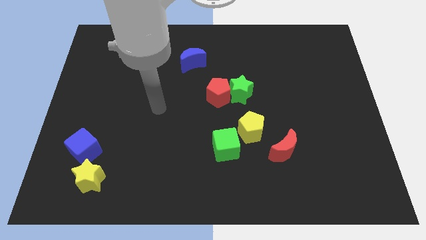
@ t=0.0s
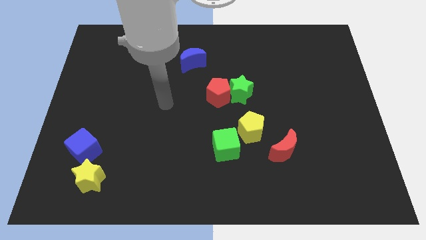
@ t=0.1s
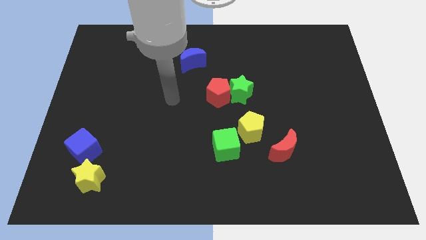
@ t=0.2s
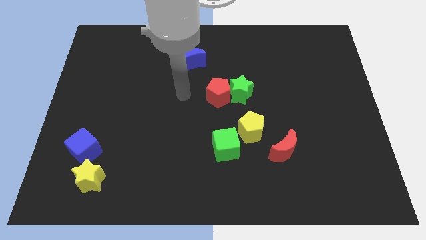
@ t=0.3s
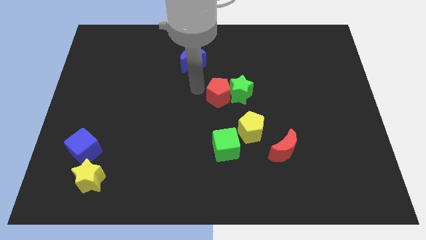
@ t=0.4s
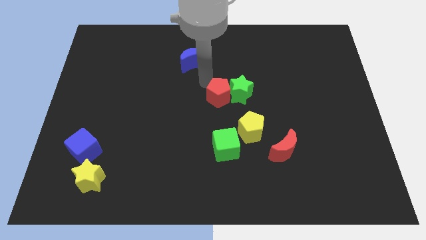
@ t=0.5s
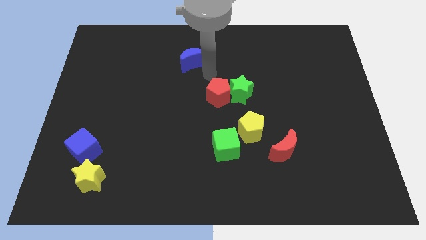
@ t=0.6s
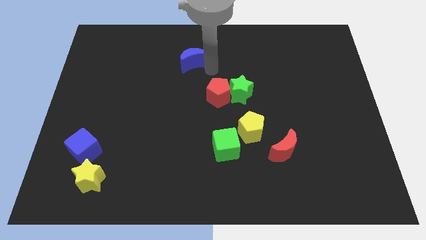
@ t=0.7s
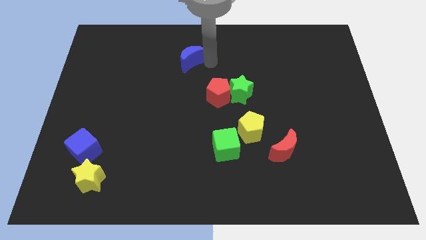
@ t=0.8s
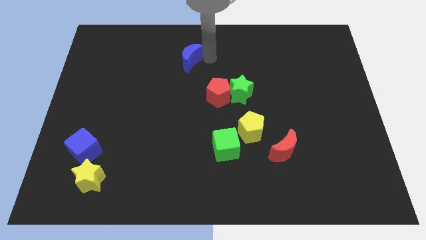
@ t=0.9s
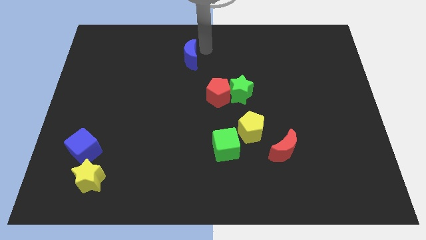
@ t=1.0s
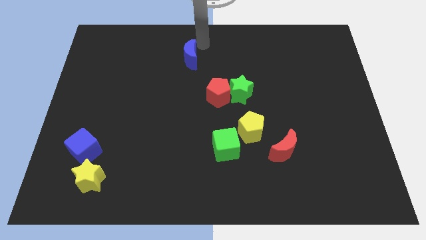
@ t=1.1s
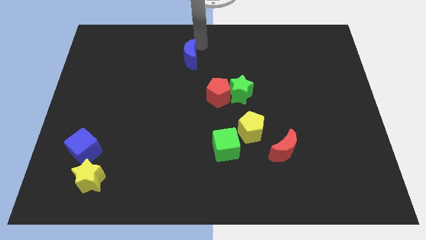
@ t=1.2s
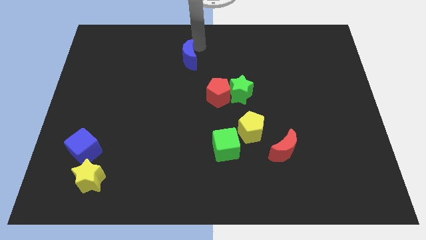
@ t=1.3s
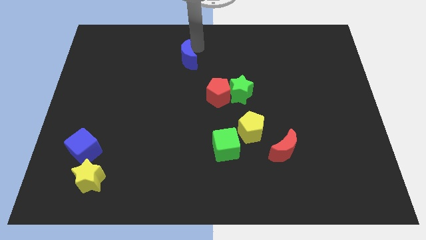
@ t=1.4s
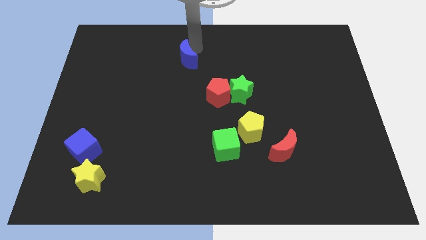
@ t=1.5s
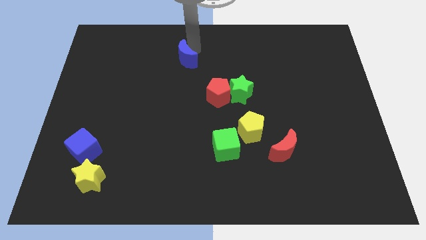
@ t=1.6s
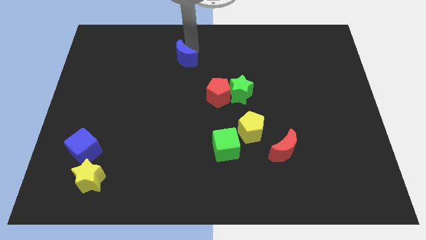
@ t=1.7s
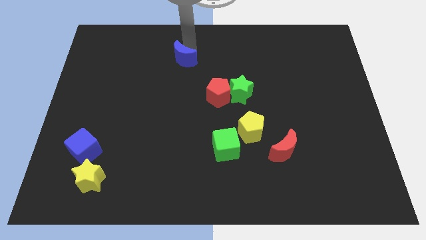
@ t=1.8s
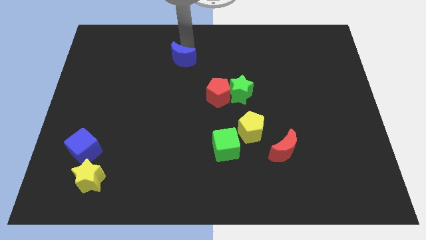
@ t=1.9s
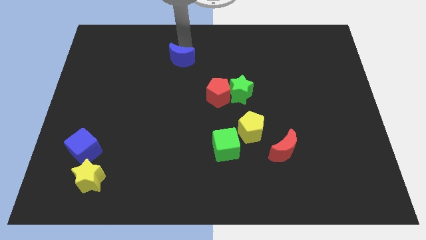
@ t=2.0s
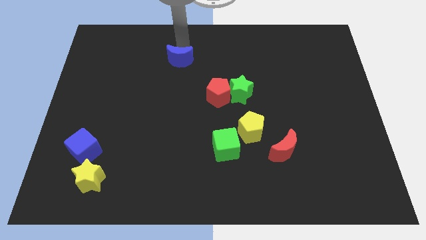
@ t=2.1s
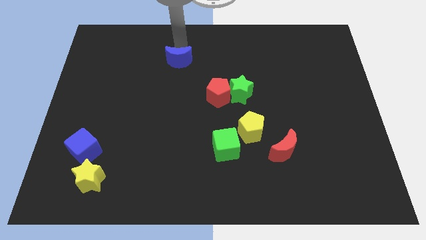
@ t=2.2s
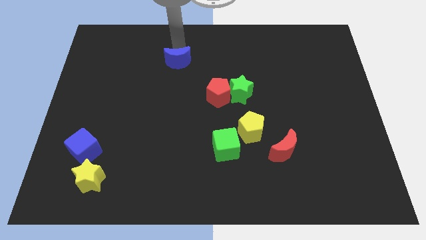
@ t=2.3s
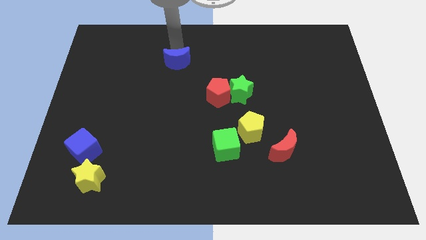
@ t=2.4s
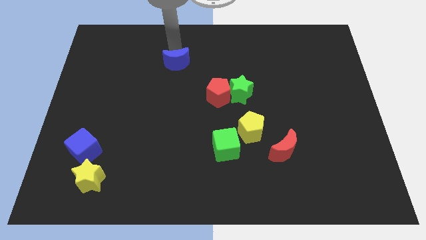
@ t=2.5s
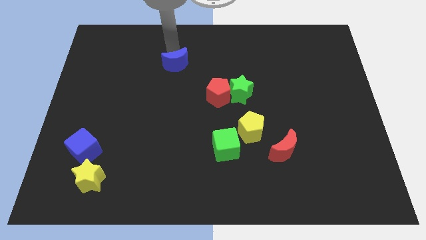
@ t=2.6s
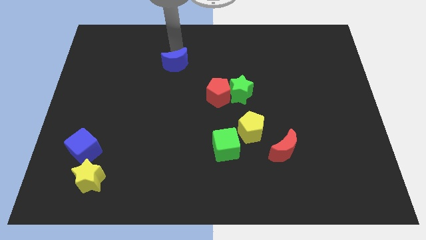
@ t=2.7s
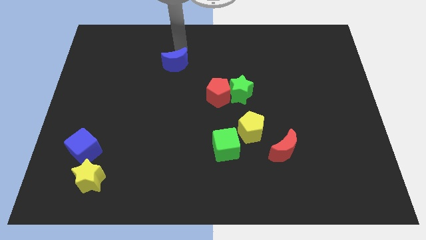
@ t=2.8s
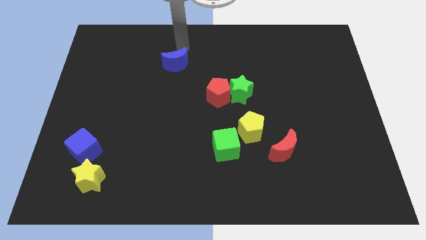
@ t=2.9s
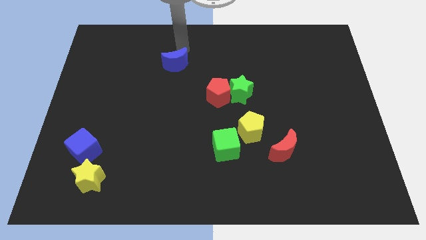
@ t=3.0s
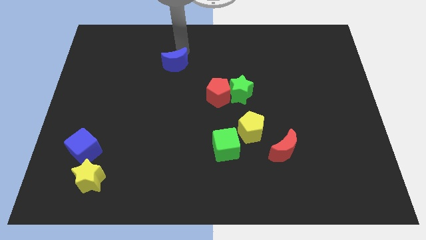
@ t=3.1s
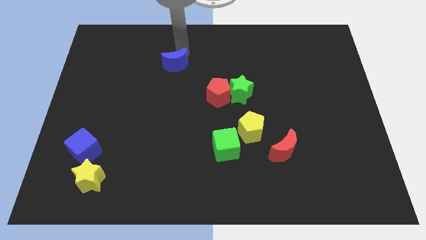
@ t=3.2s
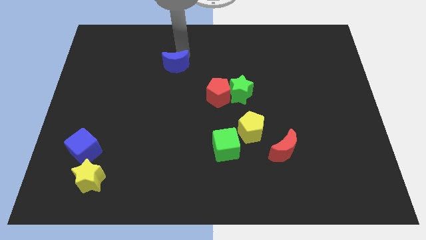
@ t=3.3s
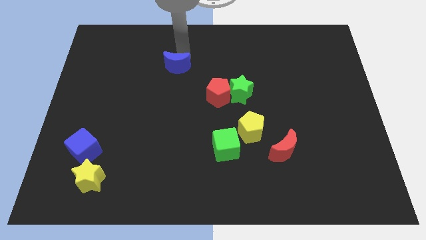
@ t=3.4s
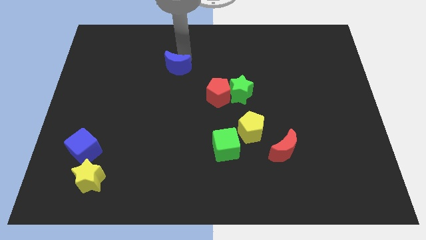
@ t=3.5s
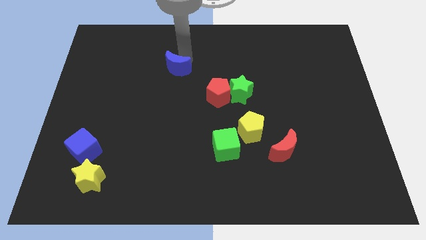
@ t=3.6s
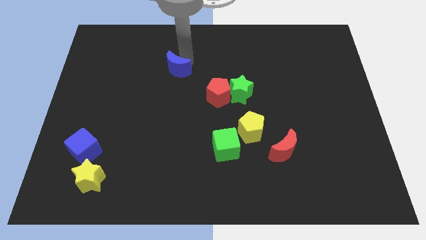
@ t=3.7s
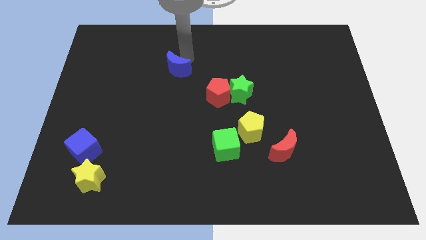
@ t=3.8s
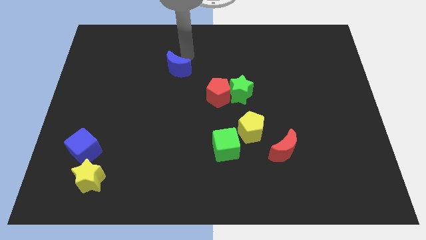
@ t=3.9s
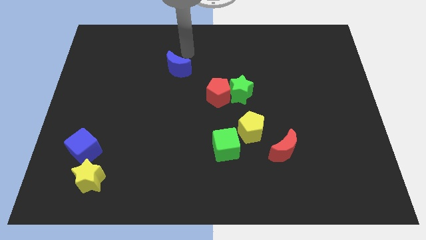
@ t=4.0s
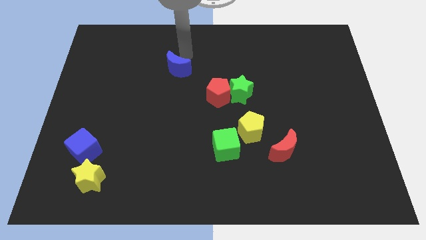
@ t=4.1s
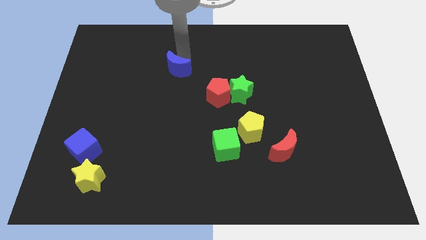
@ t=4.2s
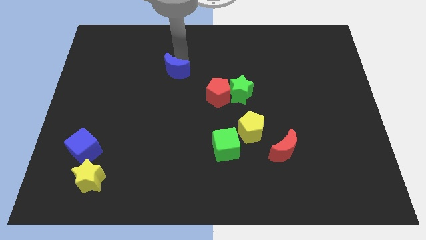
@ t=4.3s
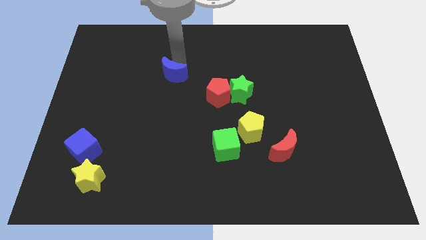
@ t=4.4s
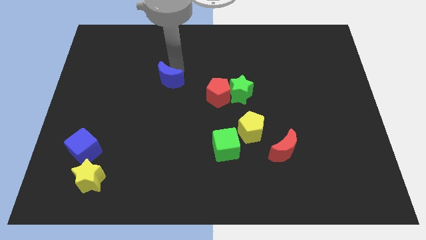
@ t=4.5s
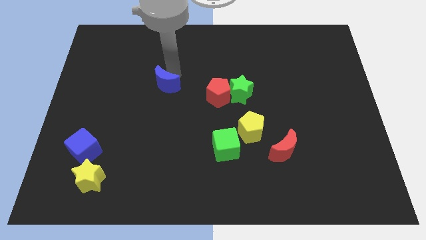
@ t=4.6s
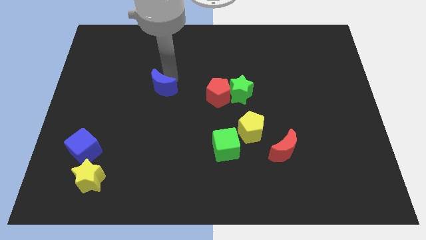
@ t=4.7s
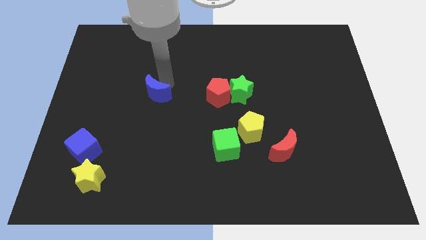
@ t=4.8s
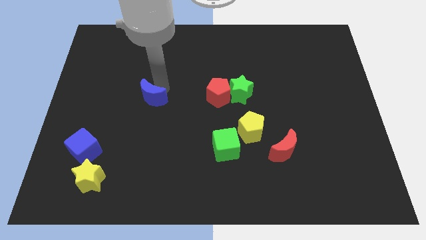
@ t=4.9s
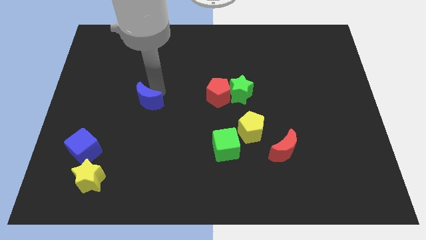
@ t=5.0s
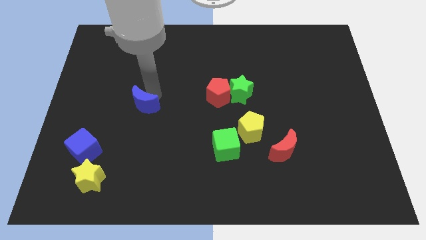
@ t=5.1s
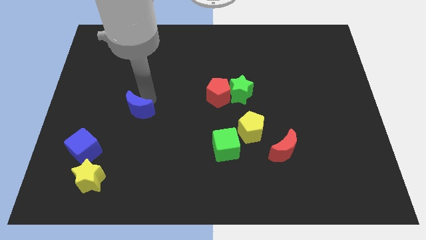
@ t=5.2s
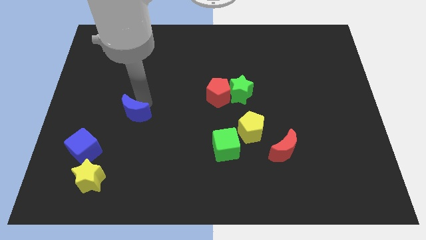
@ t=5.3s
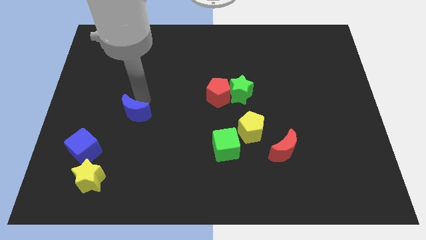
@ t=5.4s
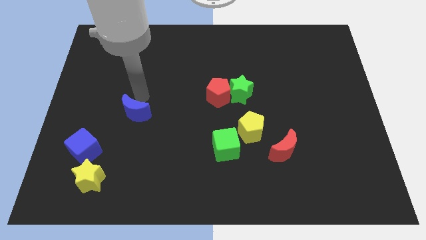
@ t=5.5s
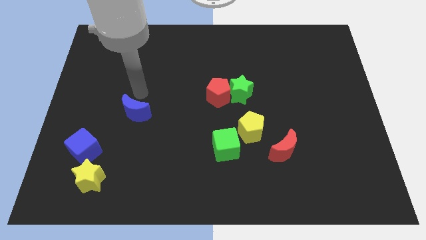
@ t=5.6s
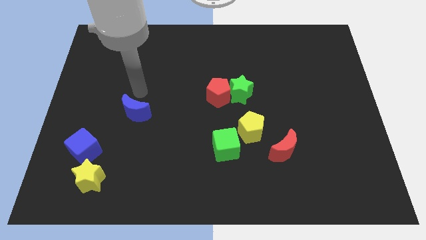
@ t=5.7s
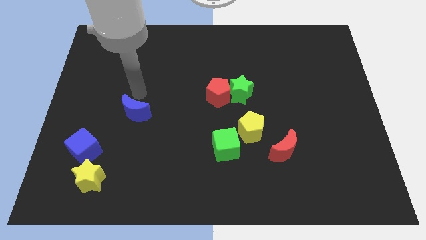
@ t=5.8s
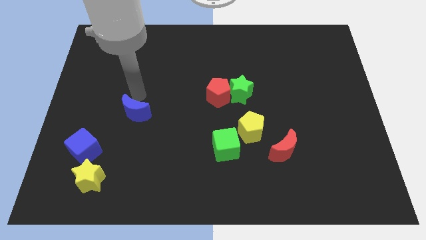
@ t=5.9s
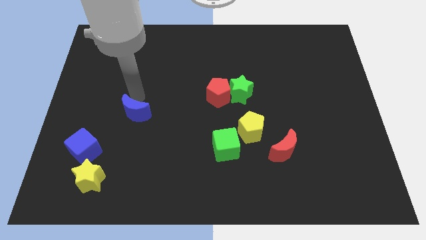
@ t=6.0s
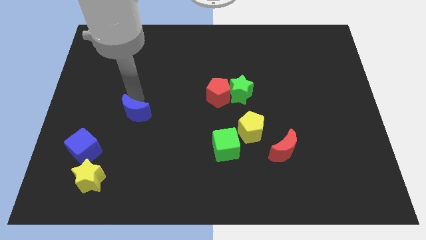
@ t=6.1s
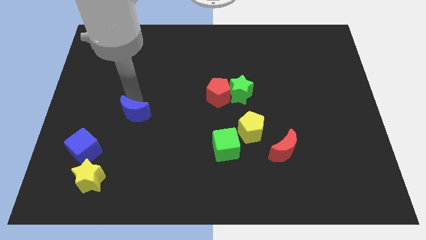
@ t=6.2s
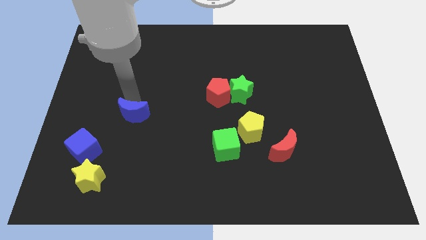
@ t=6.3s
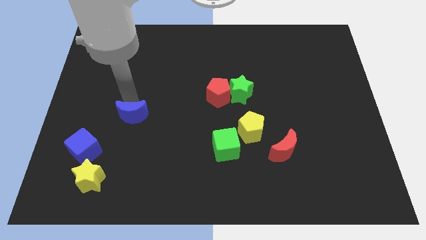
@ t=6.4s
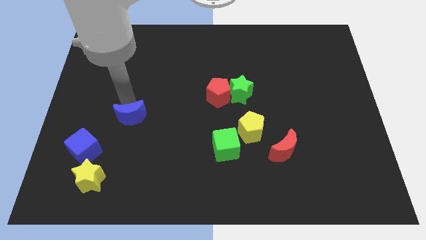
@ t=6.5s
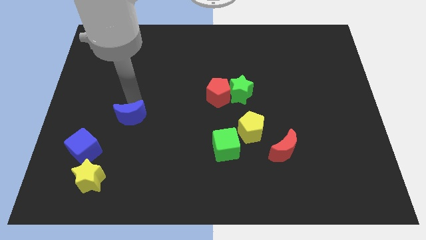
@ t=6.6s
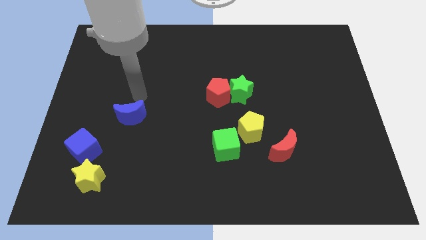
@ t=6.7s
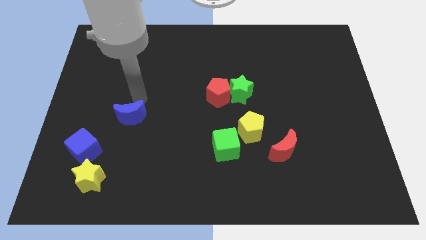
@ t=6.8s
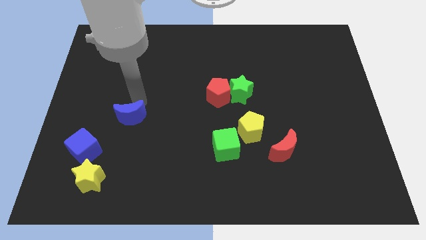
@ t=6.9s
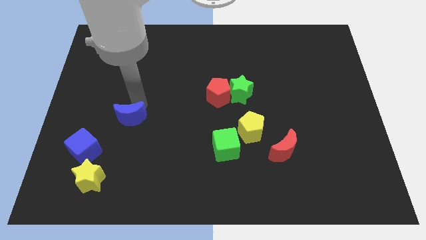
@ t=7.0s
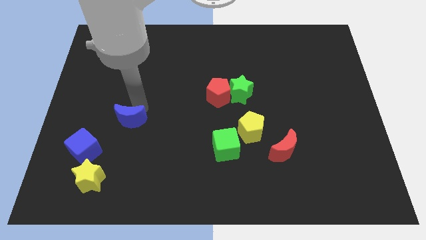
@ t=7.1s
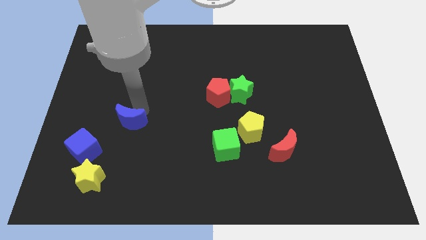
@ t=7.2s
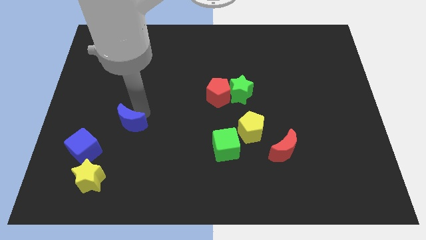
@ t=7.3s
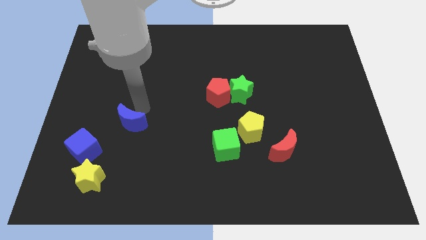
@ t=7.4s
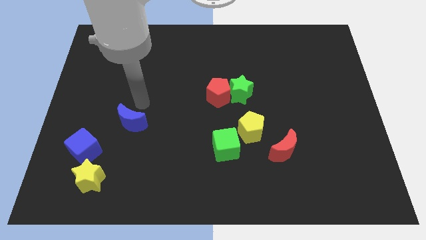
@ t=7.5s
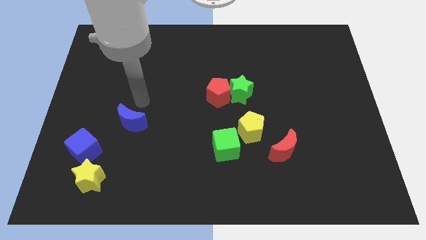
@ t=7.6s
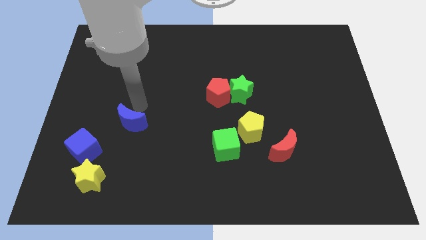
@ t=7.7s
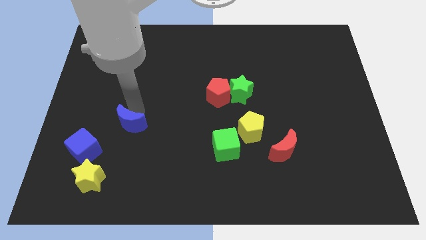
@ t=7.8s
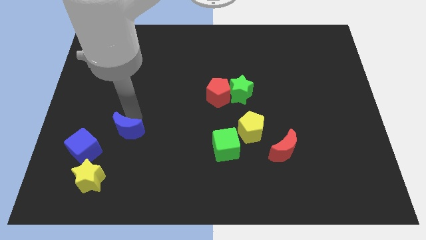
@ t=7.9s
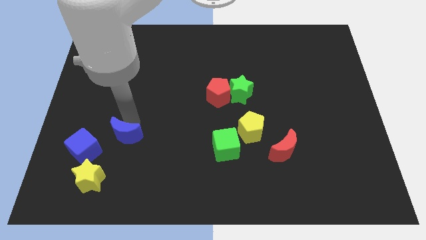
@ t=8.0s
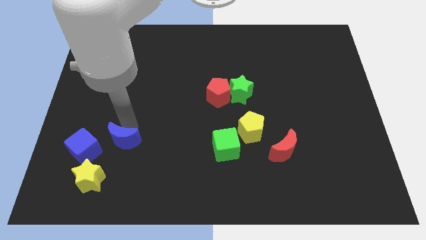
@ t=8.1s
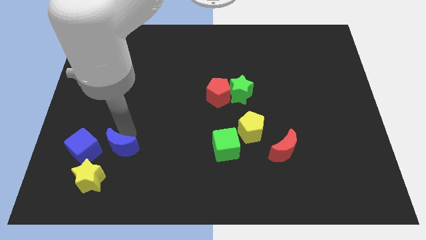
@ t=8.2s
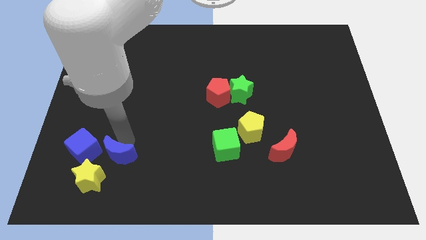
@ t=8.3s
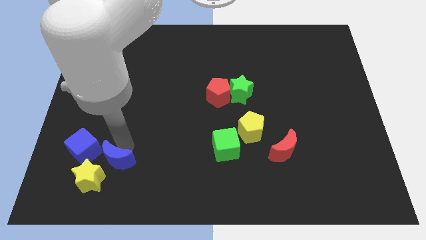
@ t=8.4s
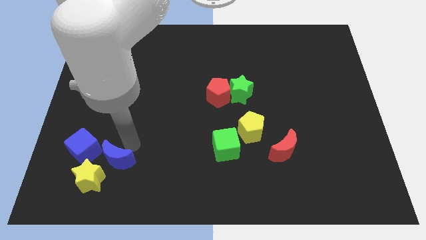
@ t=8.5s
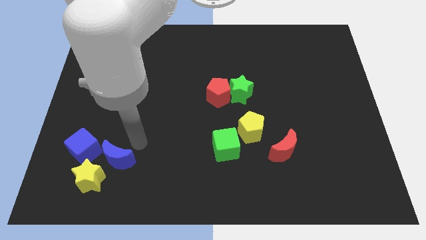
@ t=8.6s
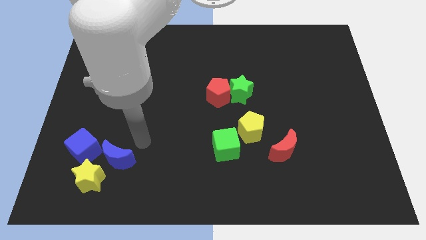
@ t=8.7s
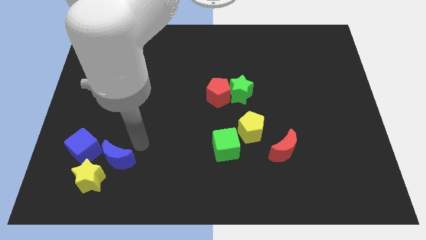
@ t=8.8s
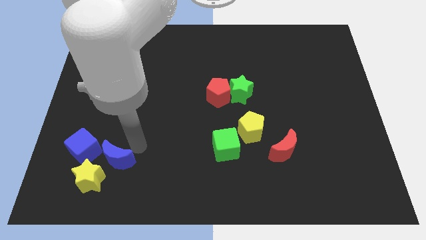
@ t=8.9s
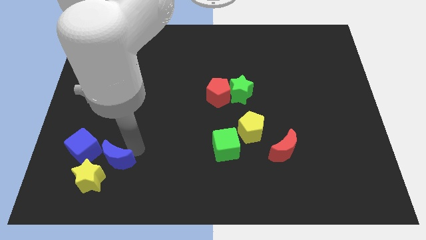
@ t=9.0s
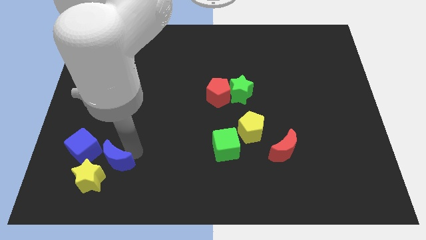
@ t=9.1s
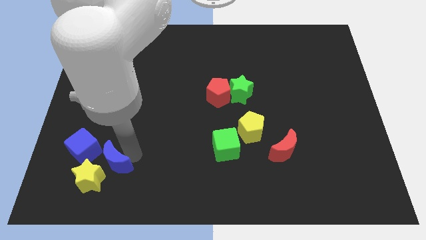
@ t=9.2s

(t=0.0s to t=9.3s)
move the blue moon close to the yellow star
